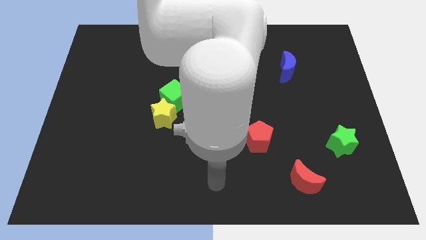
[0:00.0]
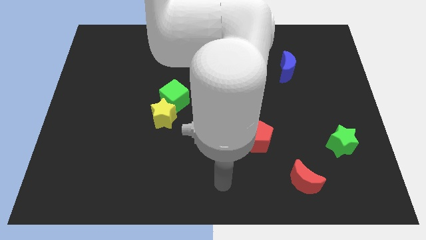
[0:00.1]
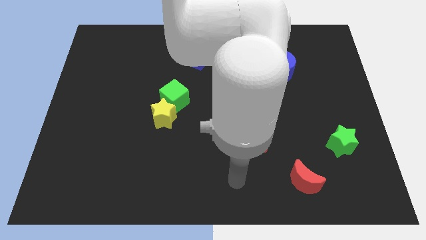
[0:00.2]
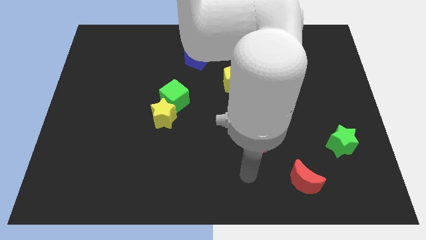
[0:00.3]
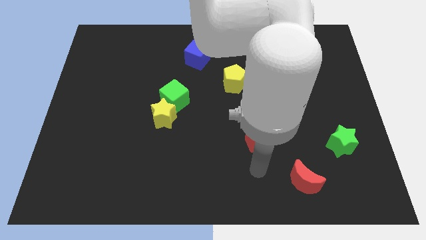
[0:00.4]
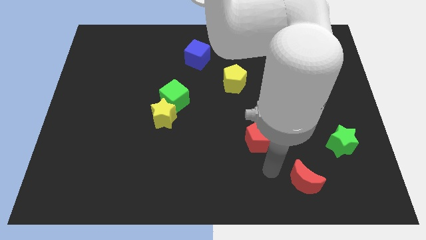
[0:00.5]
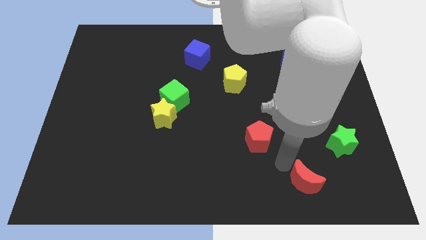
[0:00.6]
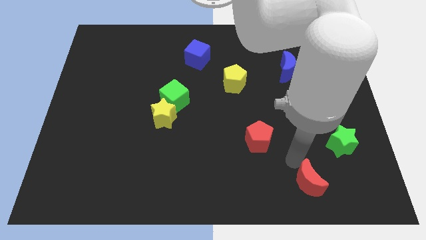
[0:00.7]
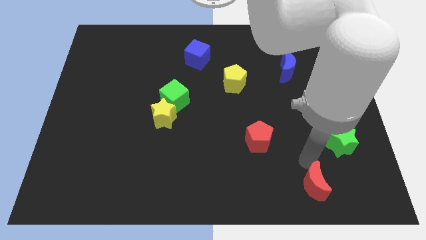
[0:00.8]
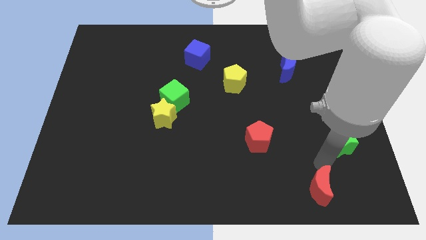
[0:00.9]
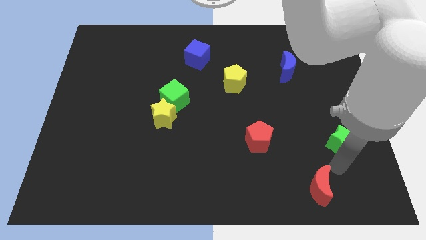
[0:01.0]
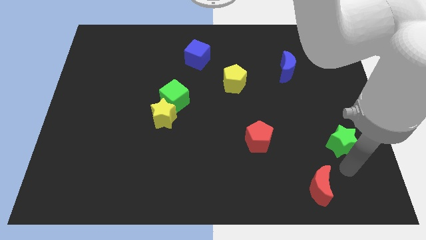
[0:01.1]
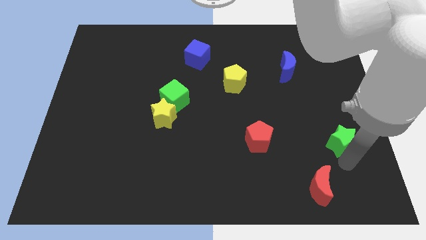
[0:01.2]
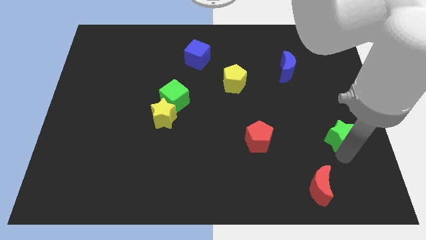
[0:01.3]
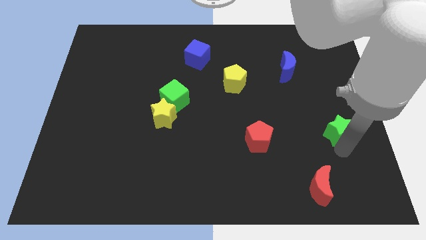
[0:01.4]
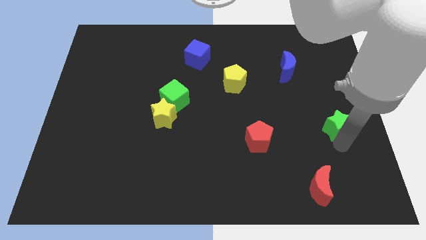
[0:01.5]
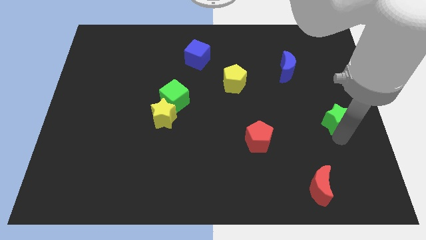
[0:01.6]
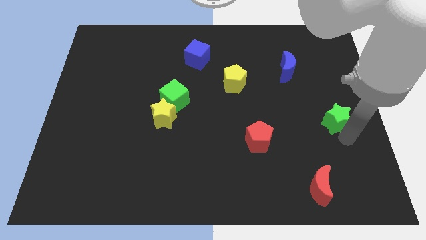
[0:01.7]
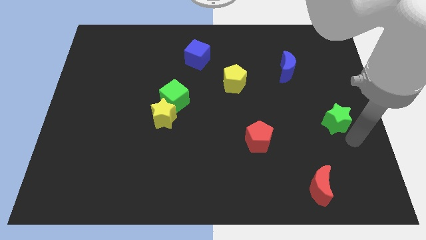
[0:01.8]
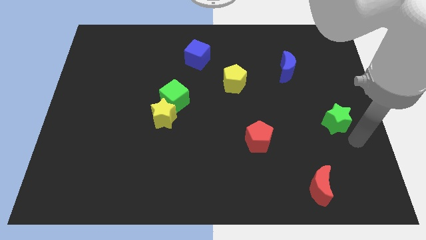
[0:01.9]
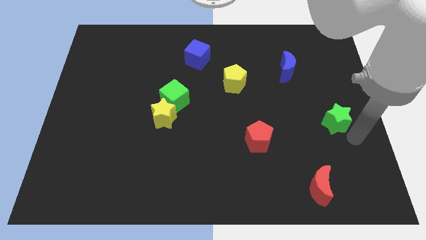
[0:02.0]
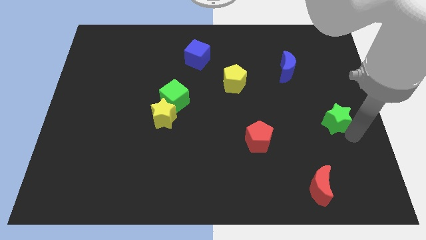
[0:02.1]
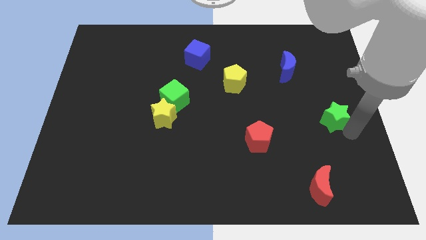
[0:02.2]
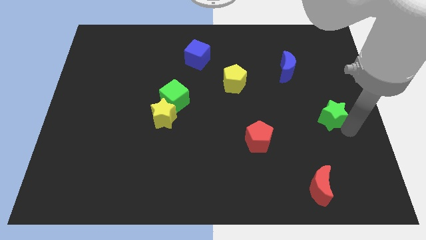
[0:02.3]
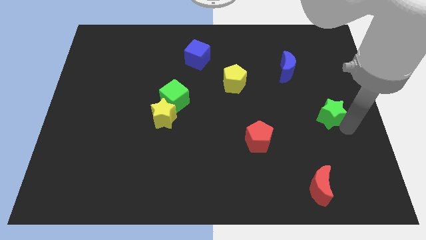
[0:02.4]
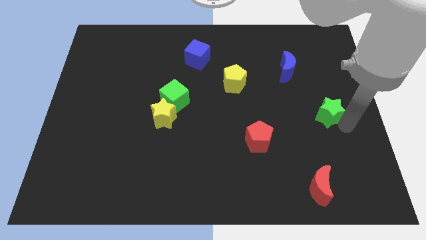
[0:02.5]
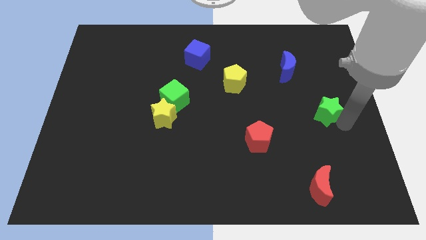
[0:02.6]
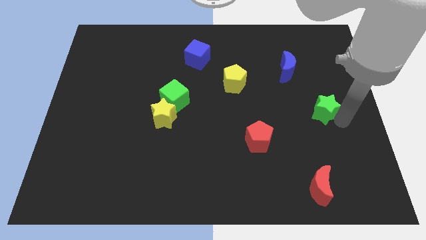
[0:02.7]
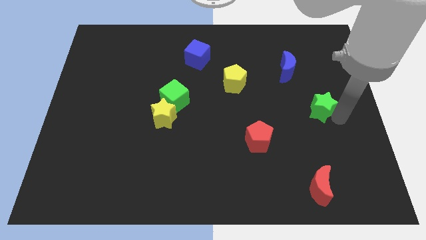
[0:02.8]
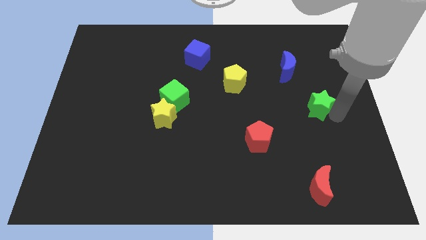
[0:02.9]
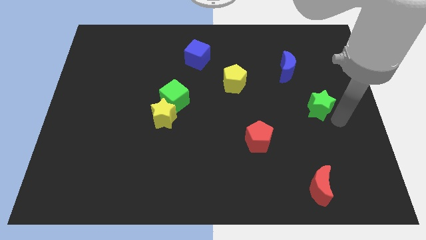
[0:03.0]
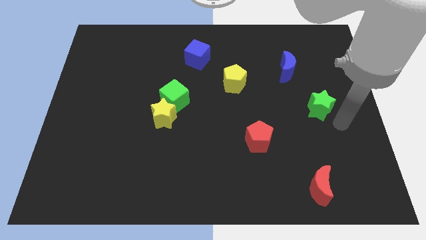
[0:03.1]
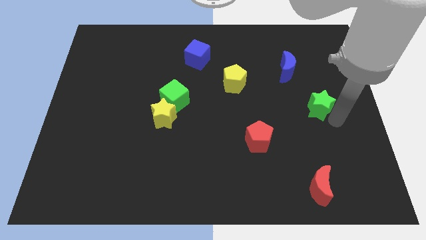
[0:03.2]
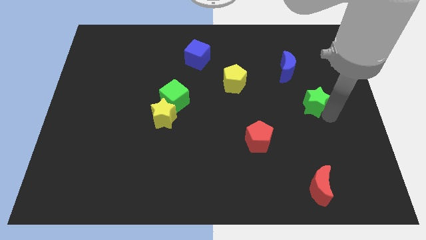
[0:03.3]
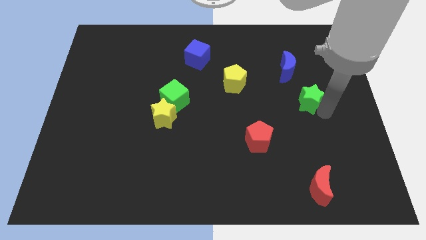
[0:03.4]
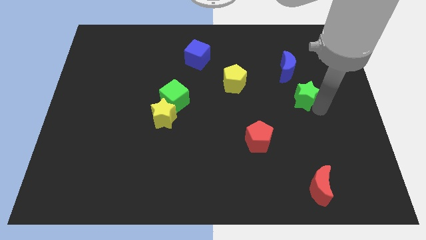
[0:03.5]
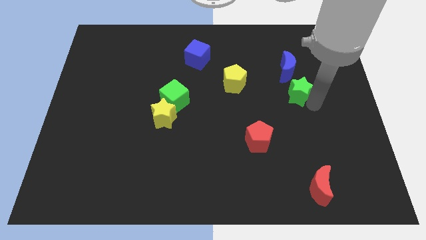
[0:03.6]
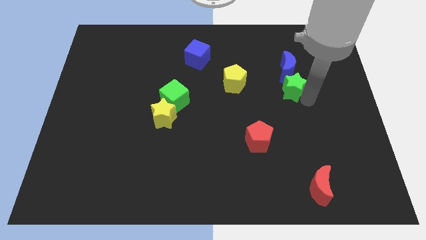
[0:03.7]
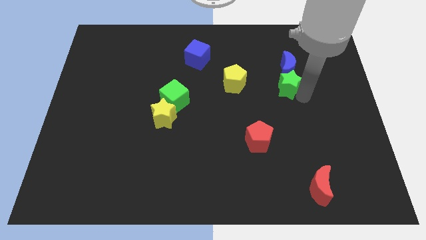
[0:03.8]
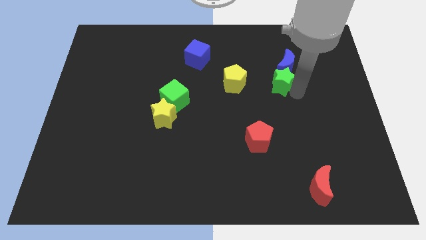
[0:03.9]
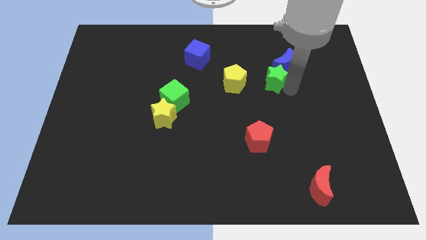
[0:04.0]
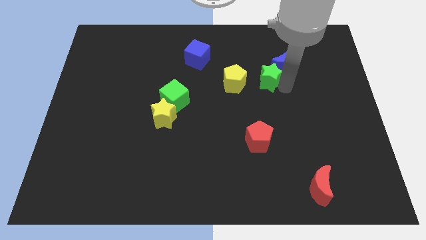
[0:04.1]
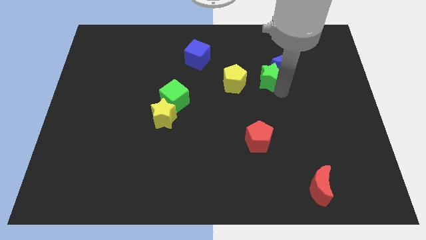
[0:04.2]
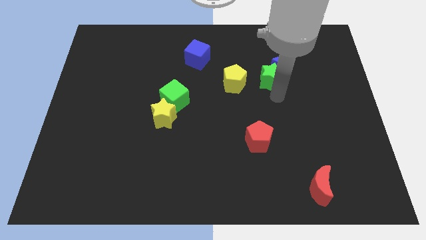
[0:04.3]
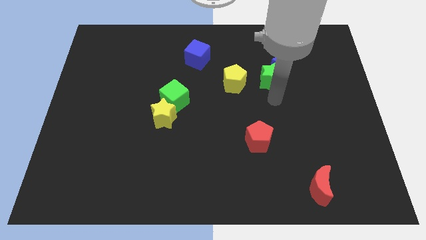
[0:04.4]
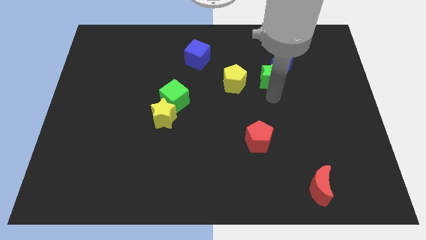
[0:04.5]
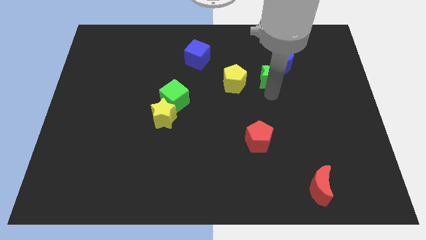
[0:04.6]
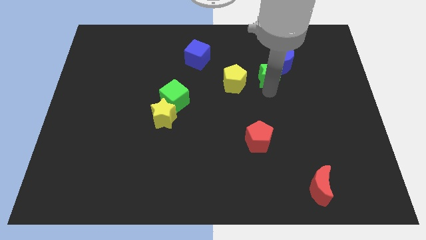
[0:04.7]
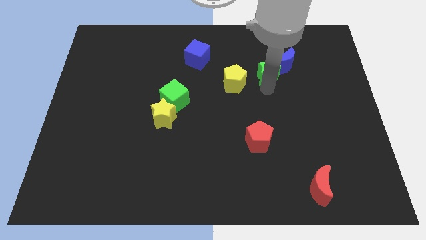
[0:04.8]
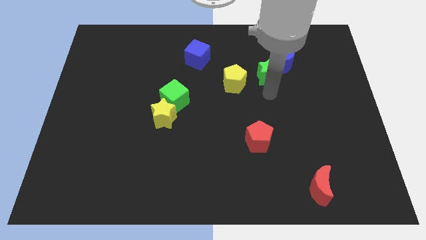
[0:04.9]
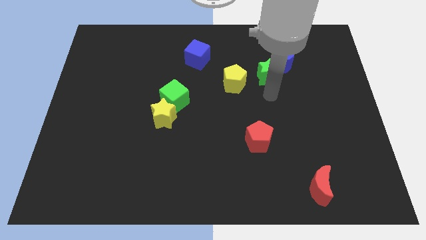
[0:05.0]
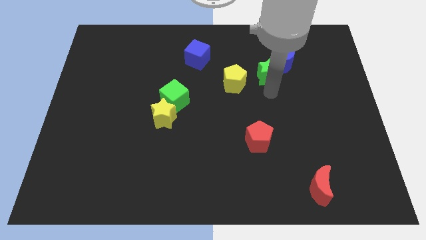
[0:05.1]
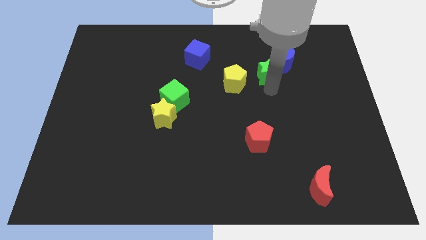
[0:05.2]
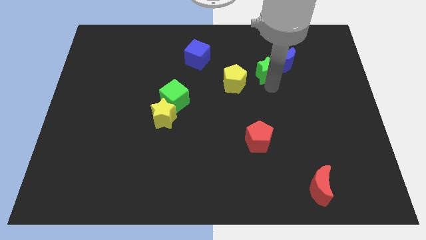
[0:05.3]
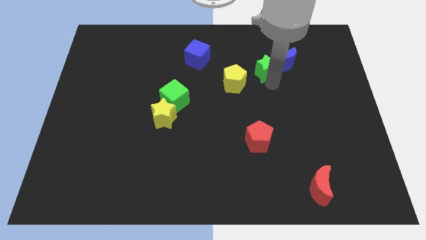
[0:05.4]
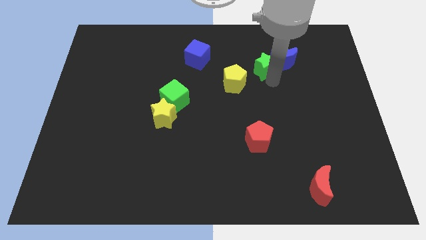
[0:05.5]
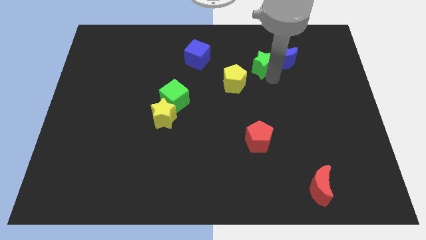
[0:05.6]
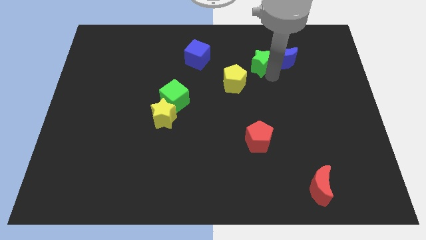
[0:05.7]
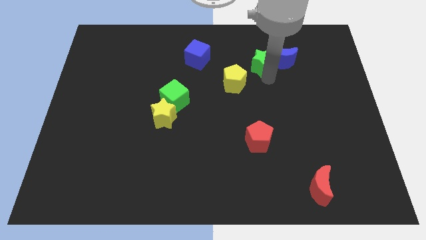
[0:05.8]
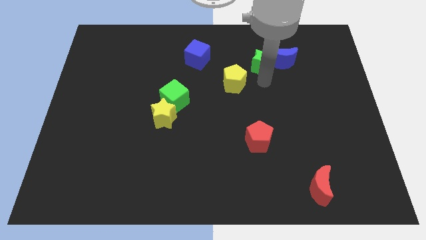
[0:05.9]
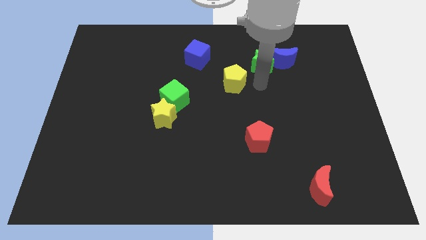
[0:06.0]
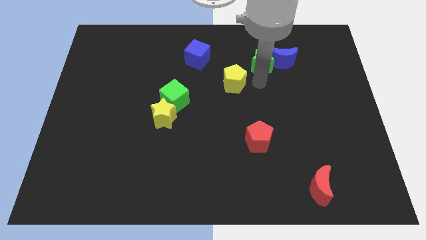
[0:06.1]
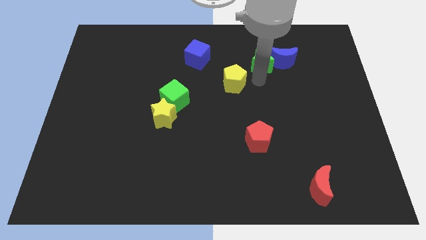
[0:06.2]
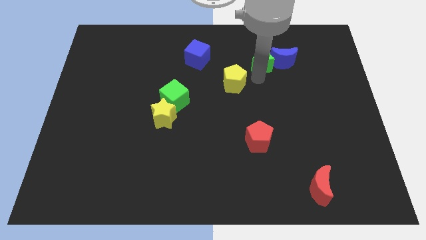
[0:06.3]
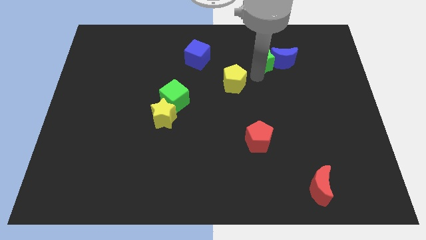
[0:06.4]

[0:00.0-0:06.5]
move the green star to the top left of the blue moon
